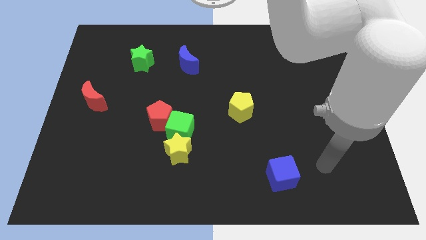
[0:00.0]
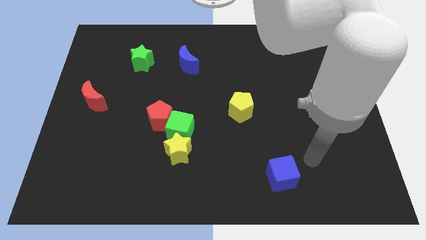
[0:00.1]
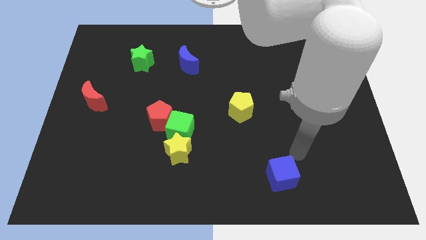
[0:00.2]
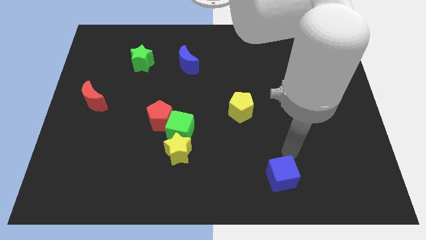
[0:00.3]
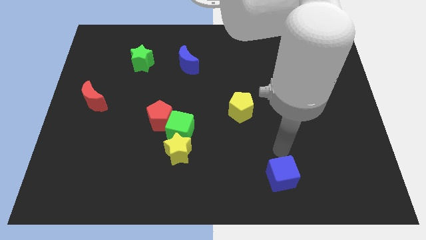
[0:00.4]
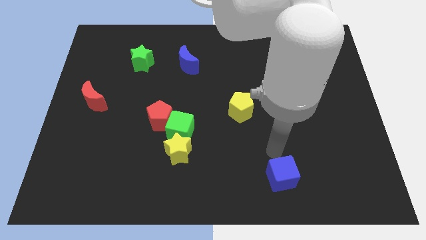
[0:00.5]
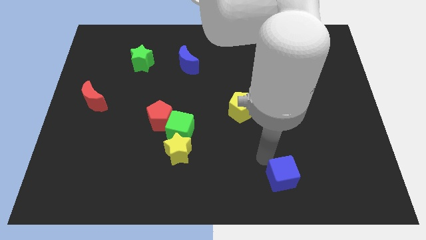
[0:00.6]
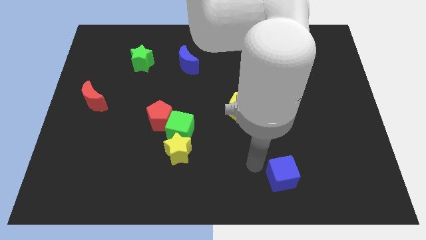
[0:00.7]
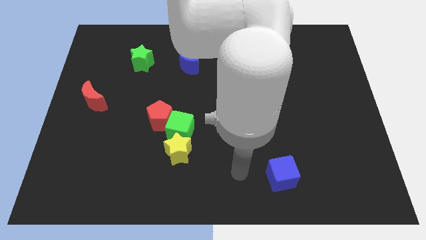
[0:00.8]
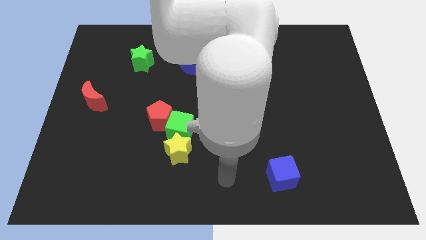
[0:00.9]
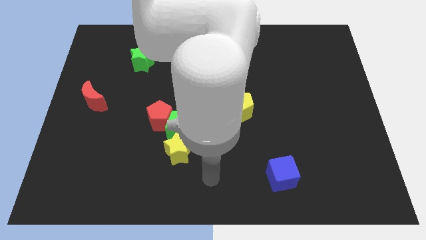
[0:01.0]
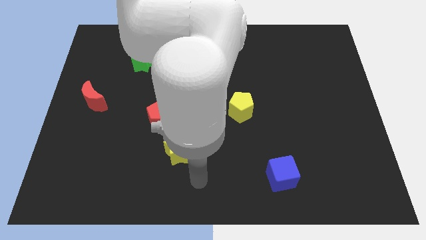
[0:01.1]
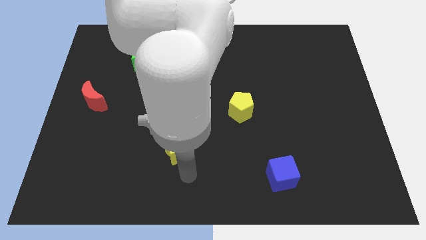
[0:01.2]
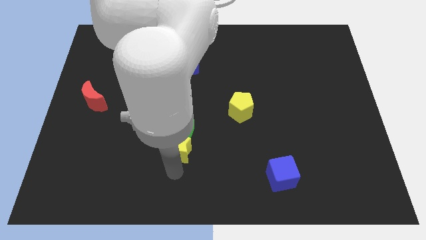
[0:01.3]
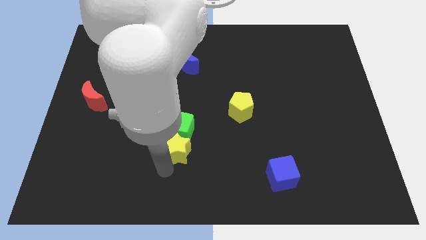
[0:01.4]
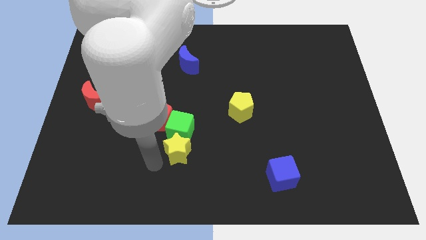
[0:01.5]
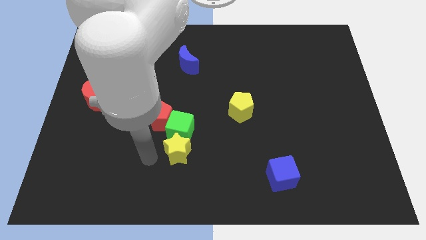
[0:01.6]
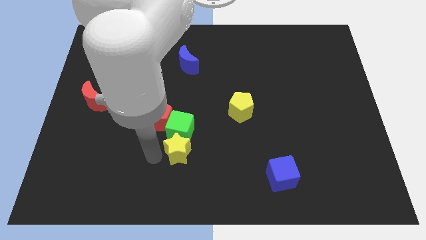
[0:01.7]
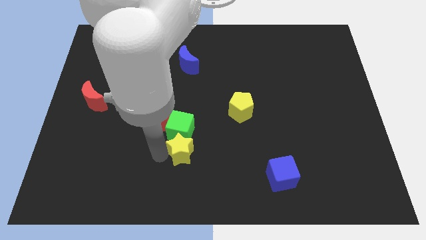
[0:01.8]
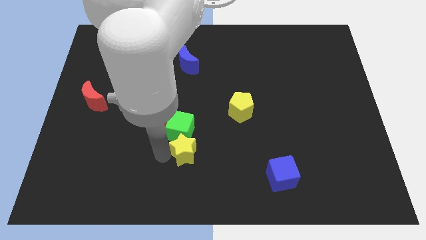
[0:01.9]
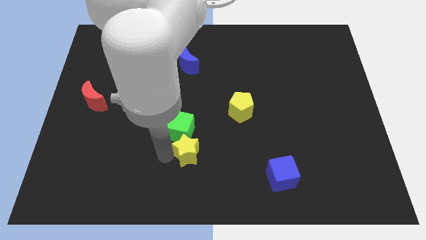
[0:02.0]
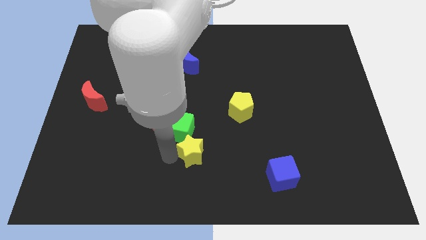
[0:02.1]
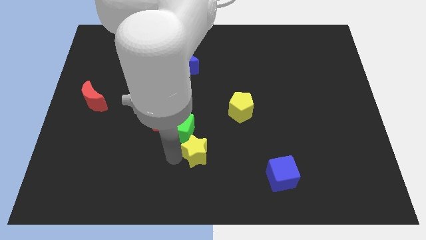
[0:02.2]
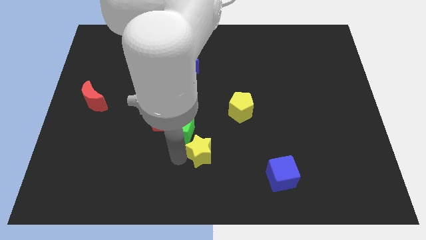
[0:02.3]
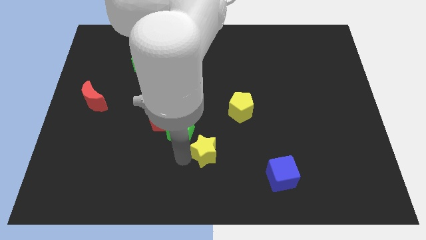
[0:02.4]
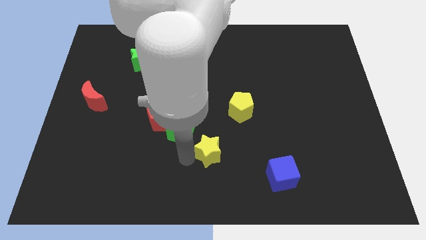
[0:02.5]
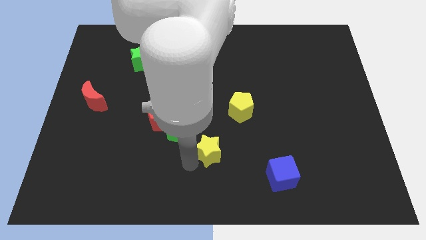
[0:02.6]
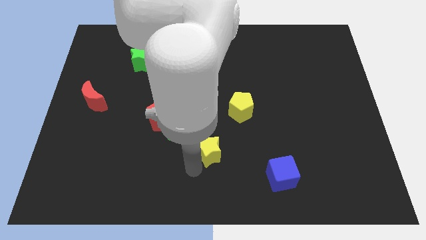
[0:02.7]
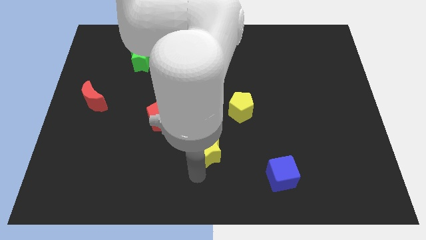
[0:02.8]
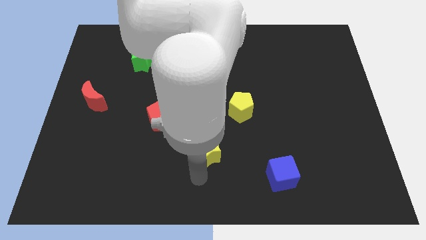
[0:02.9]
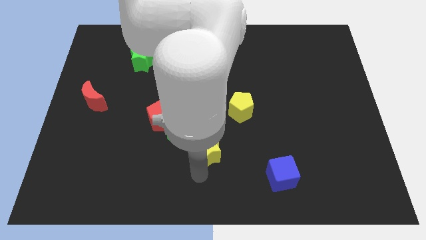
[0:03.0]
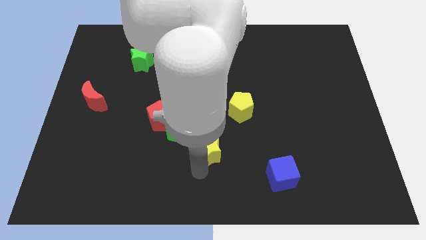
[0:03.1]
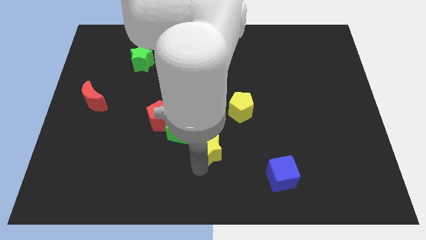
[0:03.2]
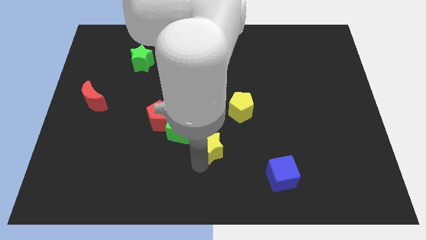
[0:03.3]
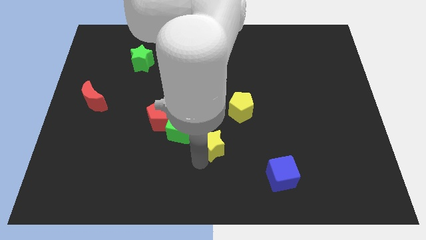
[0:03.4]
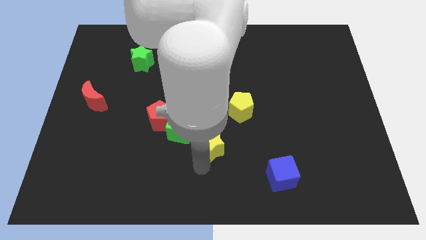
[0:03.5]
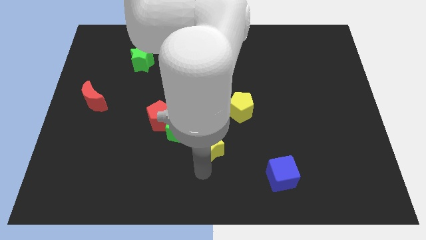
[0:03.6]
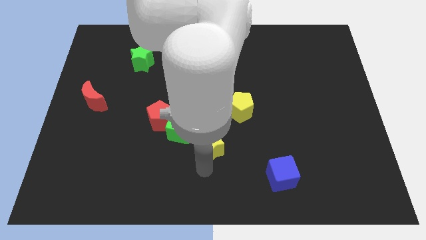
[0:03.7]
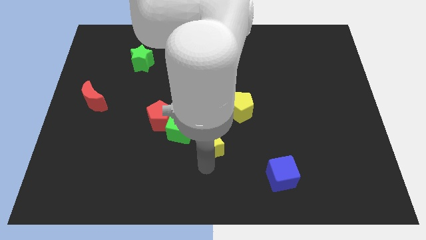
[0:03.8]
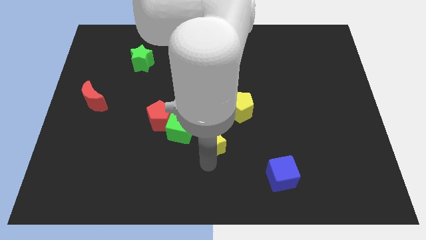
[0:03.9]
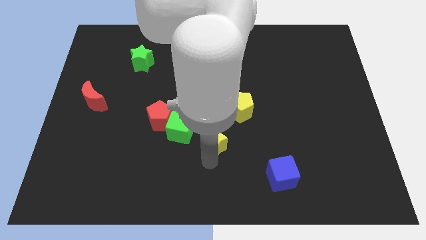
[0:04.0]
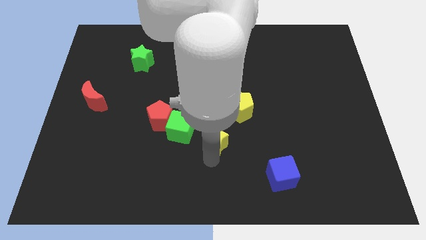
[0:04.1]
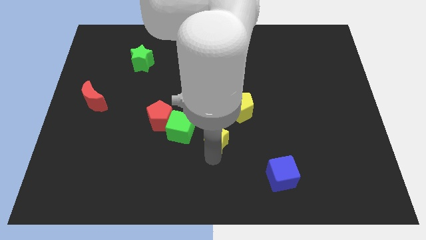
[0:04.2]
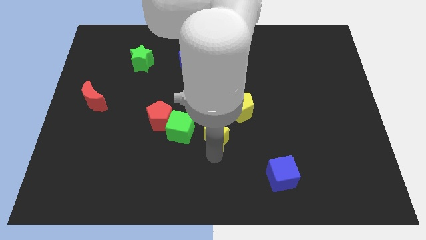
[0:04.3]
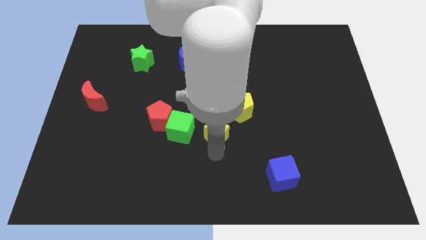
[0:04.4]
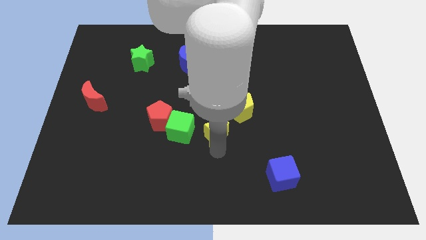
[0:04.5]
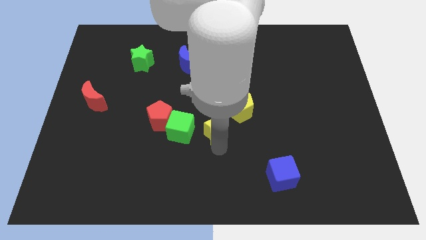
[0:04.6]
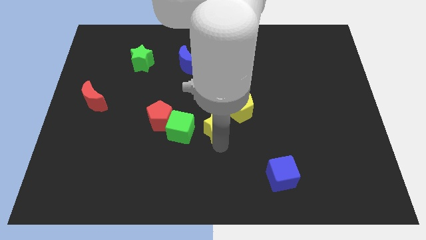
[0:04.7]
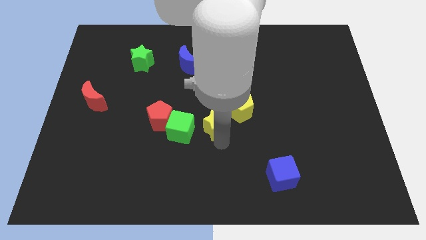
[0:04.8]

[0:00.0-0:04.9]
push the yellow star to the top right side of the green cube

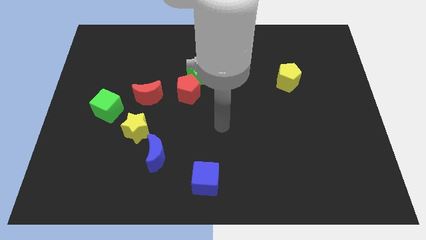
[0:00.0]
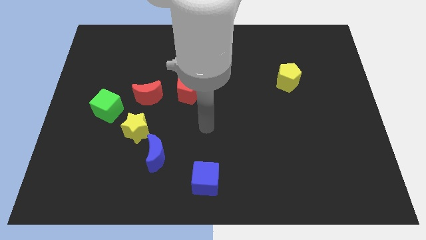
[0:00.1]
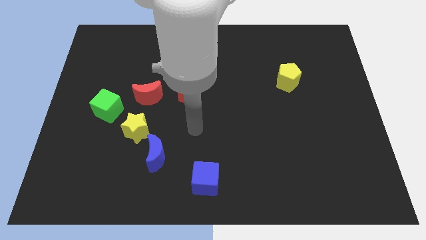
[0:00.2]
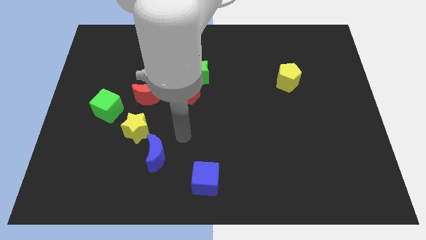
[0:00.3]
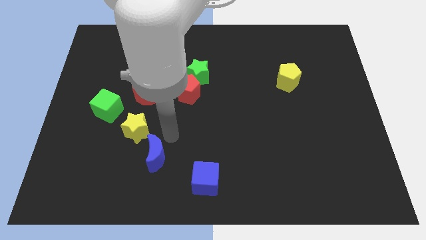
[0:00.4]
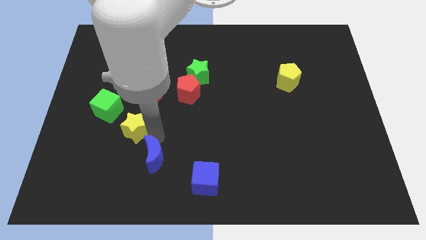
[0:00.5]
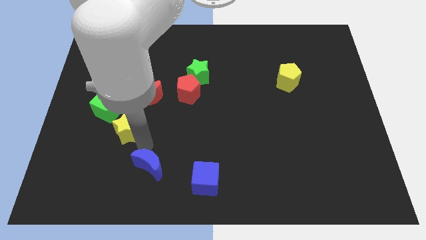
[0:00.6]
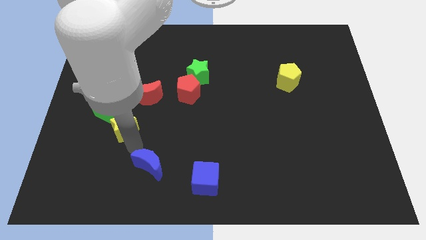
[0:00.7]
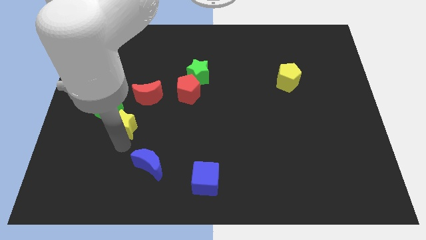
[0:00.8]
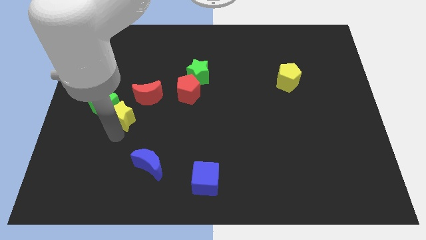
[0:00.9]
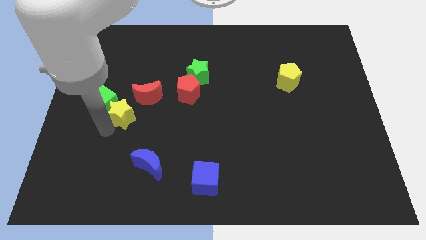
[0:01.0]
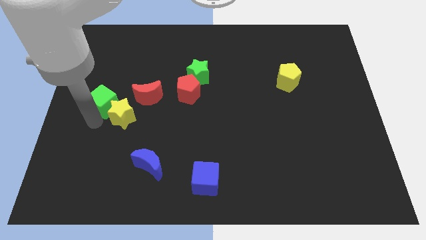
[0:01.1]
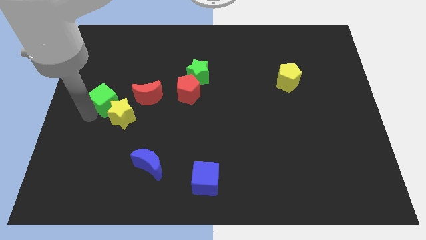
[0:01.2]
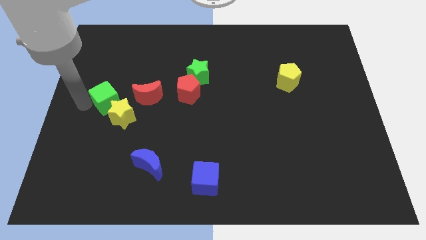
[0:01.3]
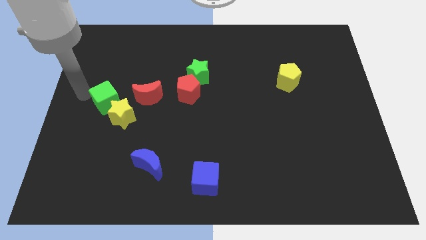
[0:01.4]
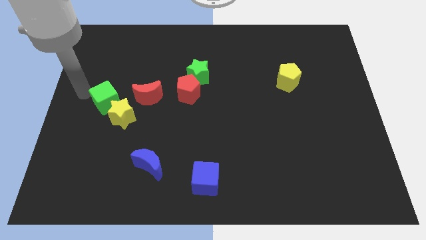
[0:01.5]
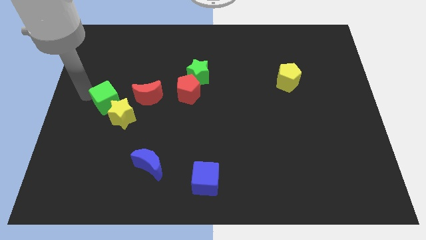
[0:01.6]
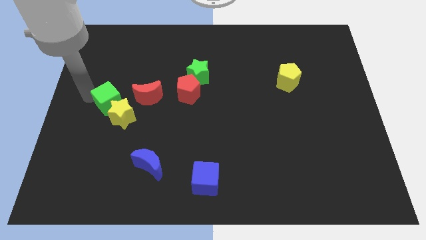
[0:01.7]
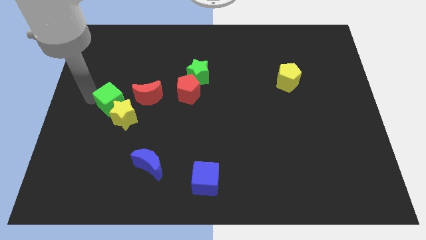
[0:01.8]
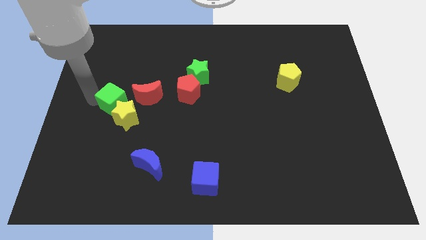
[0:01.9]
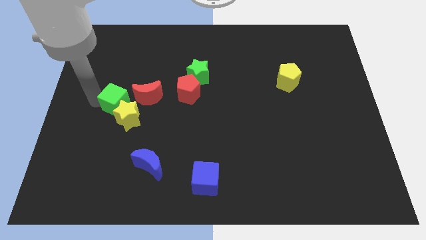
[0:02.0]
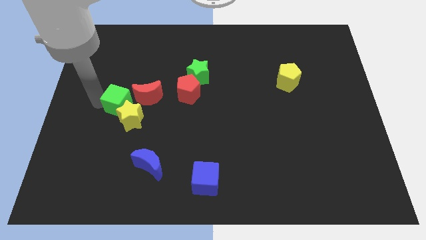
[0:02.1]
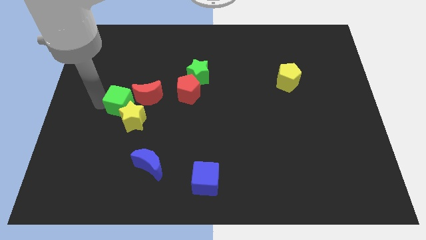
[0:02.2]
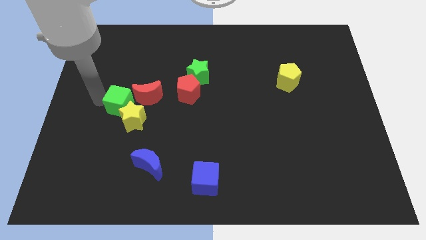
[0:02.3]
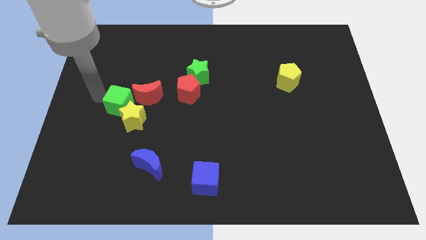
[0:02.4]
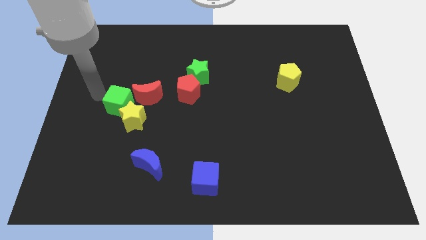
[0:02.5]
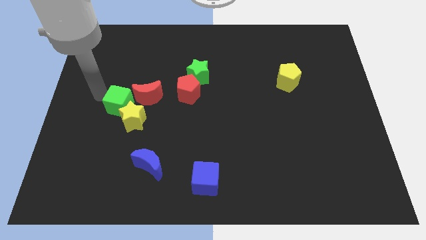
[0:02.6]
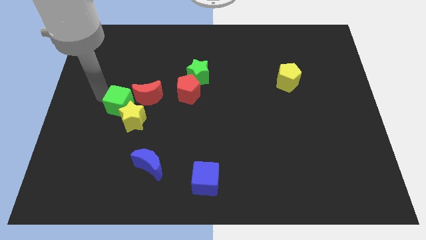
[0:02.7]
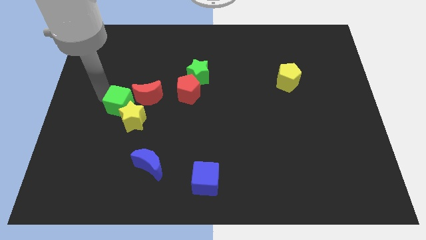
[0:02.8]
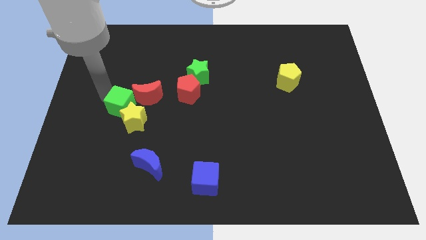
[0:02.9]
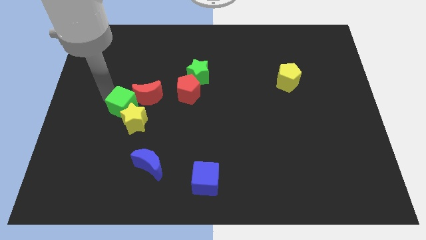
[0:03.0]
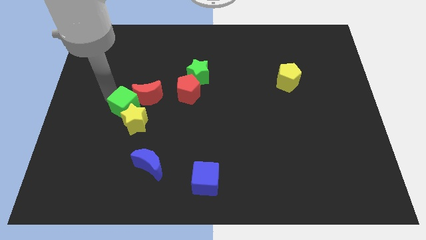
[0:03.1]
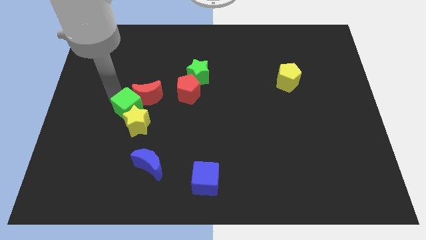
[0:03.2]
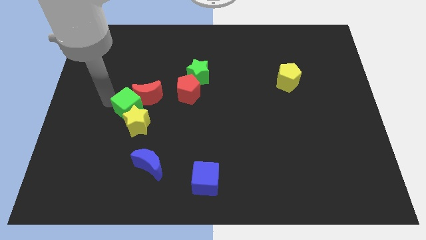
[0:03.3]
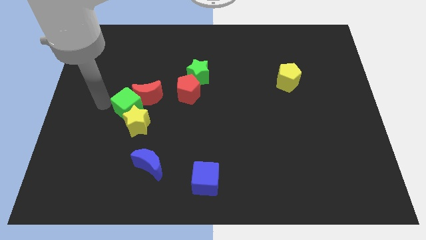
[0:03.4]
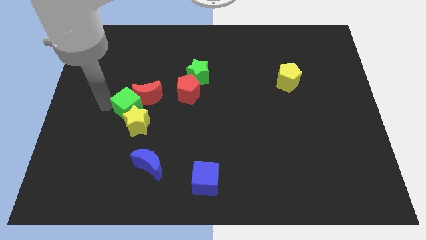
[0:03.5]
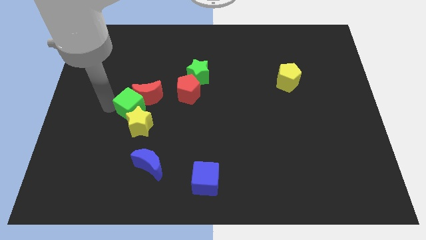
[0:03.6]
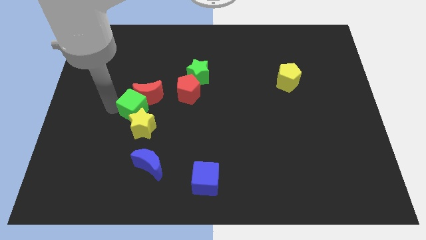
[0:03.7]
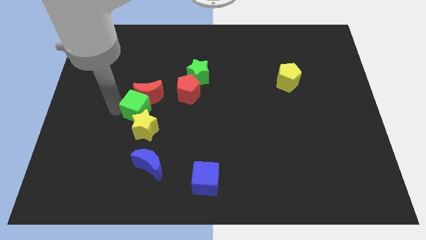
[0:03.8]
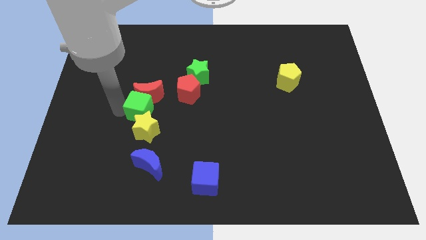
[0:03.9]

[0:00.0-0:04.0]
push the green cube diagonally down and to the right of the red moon
